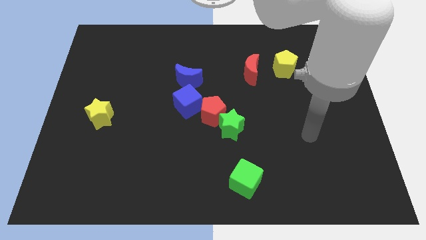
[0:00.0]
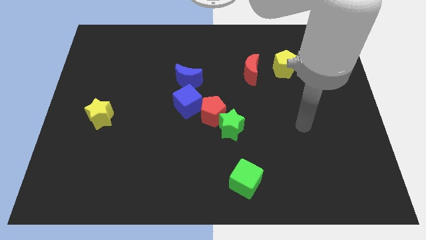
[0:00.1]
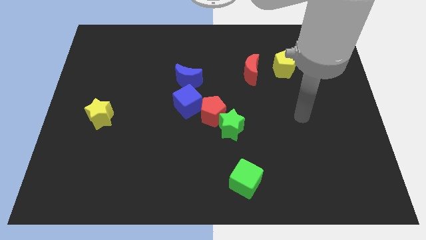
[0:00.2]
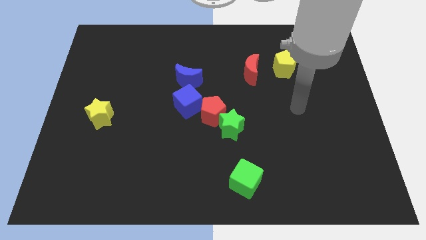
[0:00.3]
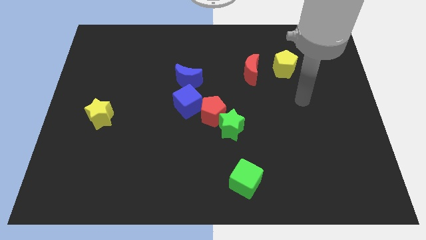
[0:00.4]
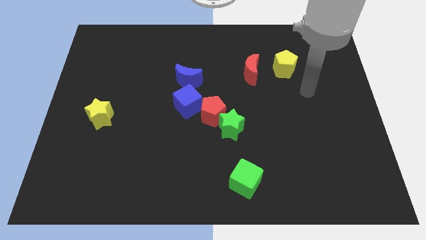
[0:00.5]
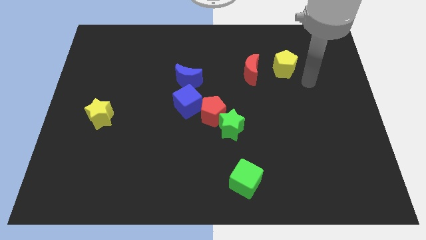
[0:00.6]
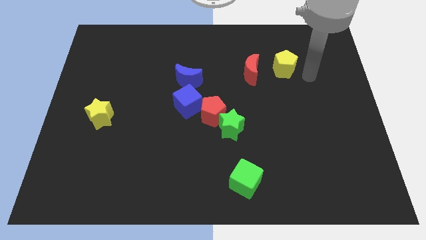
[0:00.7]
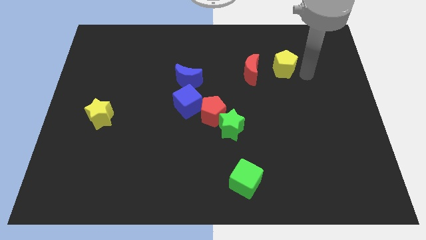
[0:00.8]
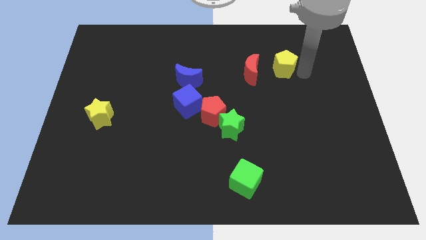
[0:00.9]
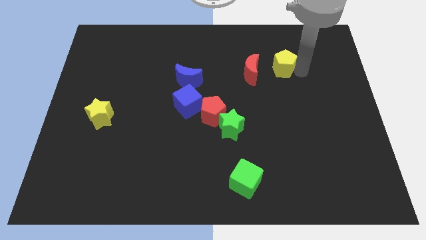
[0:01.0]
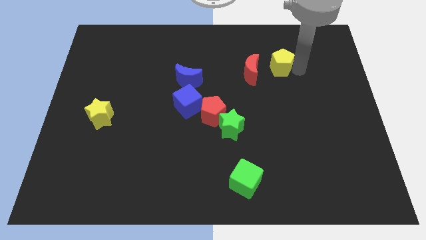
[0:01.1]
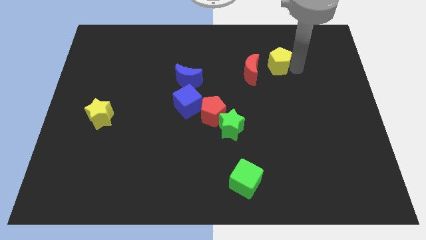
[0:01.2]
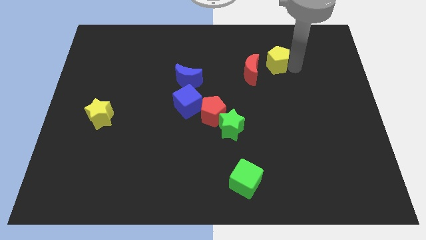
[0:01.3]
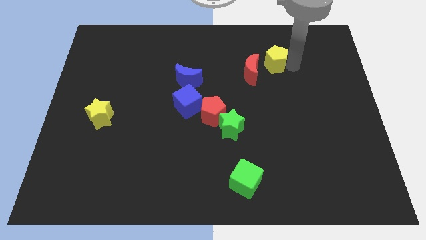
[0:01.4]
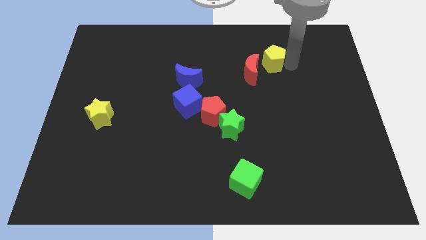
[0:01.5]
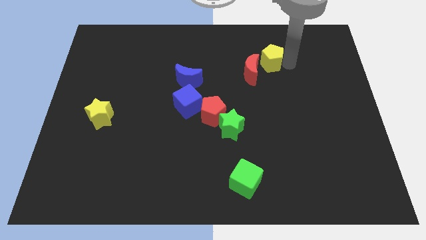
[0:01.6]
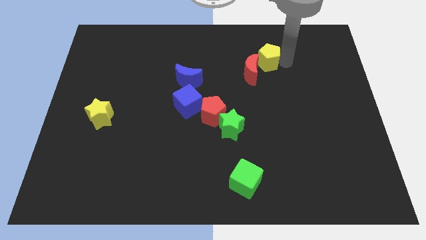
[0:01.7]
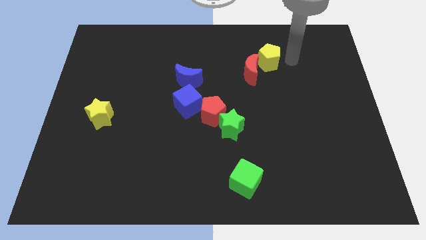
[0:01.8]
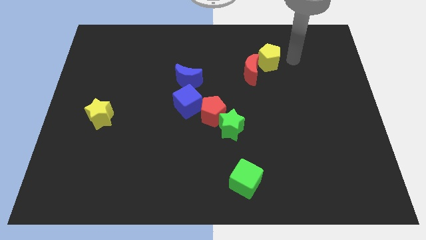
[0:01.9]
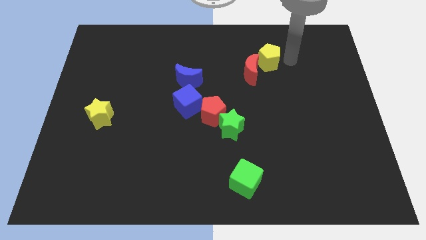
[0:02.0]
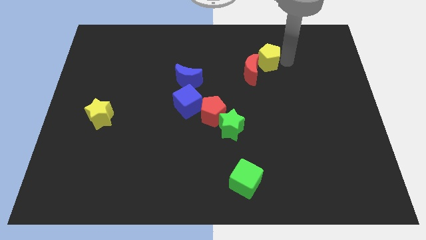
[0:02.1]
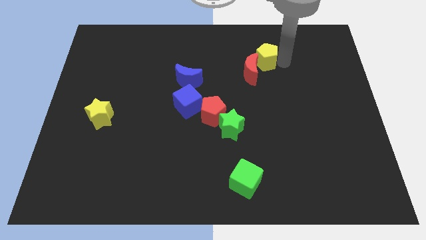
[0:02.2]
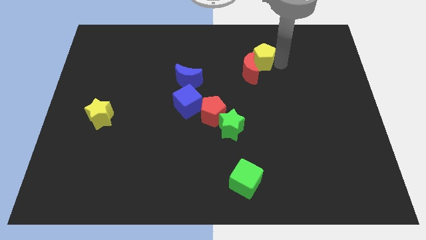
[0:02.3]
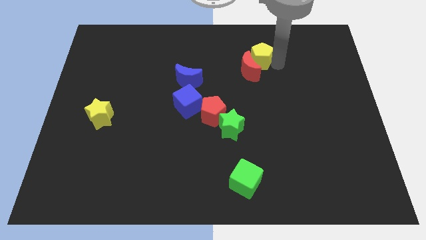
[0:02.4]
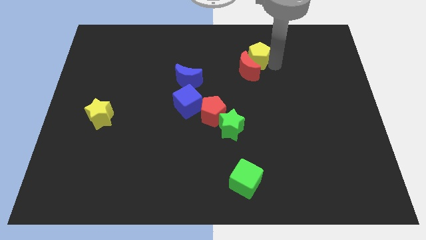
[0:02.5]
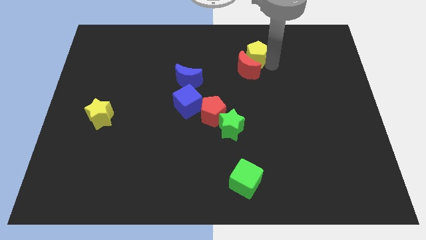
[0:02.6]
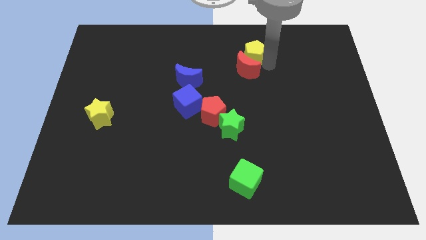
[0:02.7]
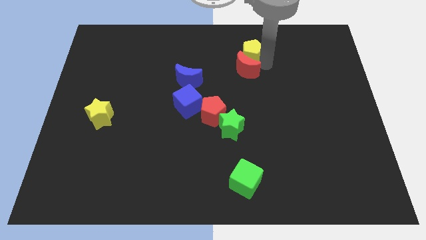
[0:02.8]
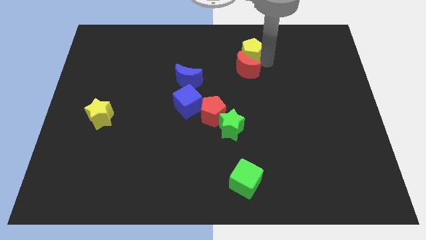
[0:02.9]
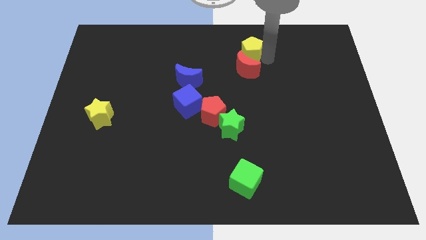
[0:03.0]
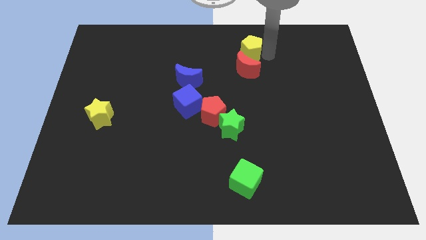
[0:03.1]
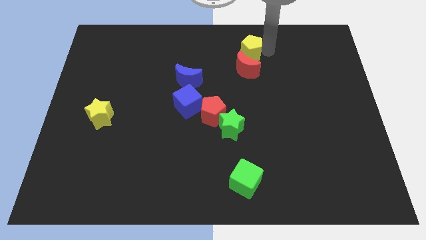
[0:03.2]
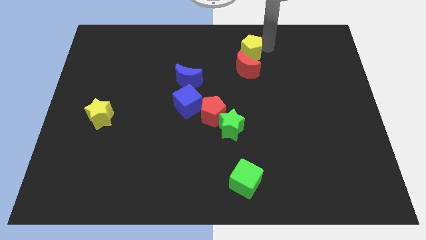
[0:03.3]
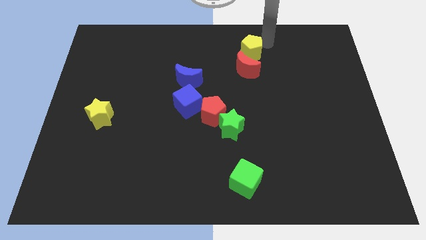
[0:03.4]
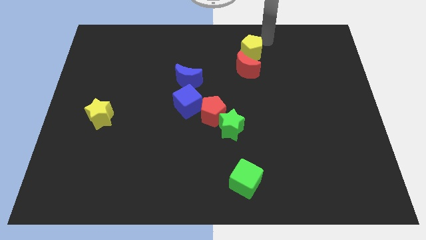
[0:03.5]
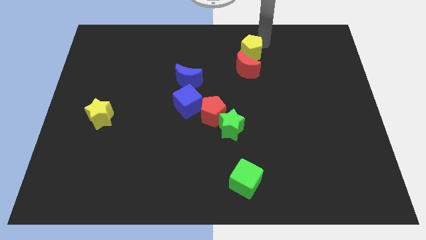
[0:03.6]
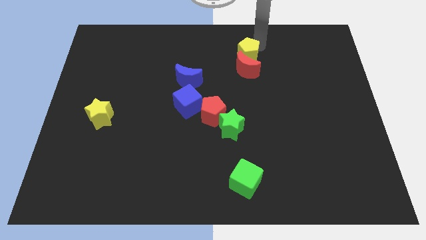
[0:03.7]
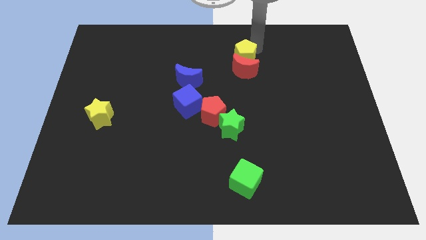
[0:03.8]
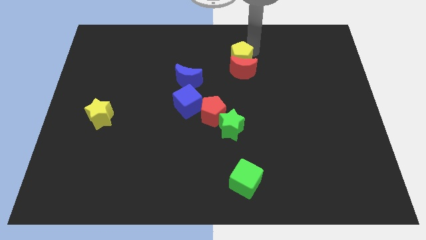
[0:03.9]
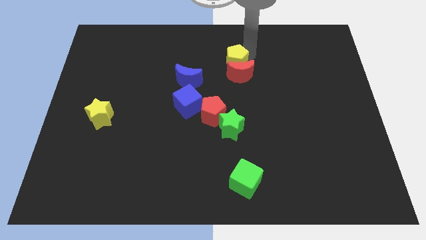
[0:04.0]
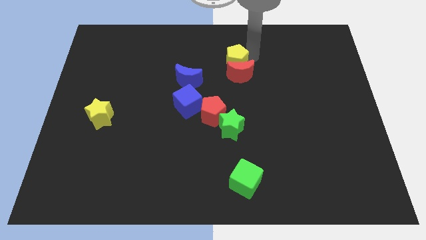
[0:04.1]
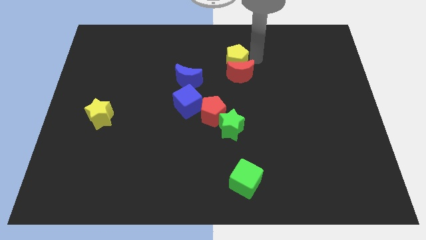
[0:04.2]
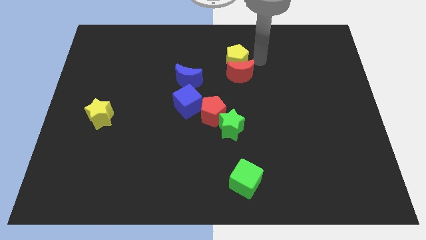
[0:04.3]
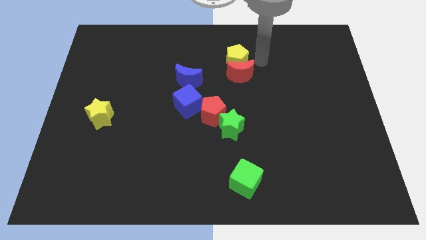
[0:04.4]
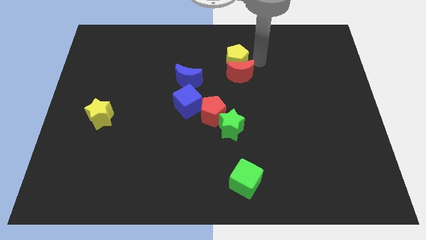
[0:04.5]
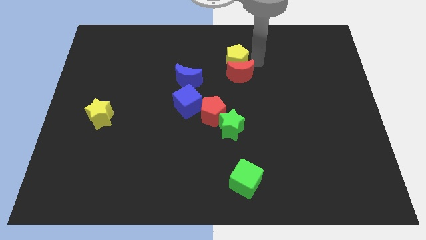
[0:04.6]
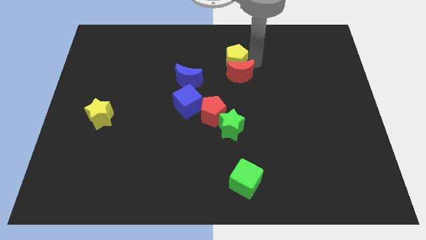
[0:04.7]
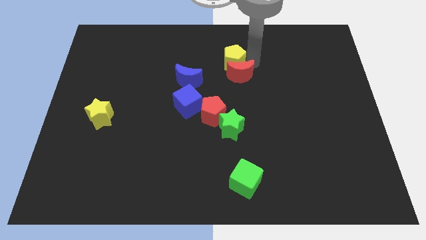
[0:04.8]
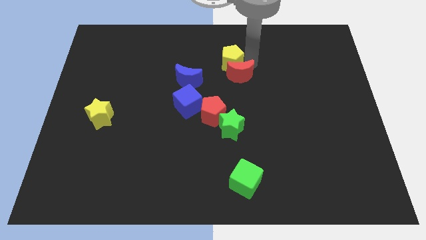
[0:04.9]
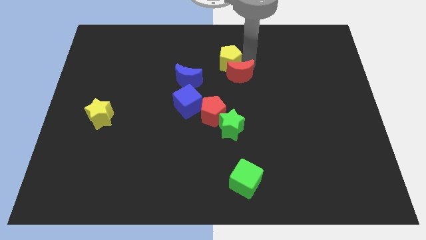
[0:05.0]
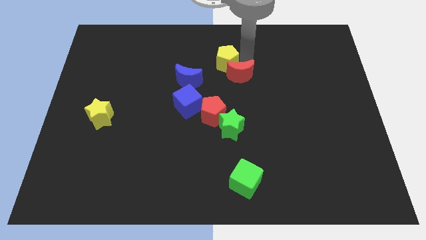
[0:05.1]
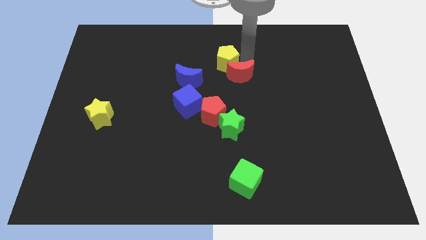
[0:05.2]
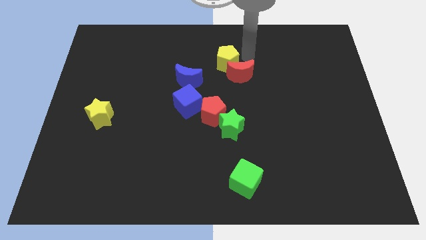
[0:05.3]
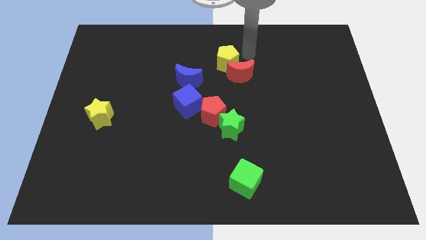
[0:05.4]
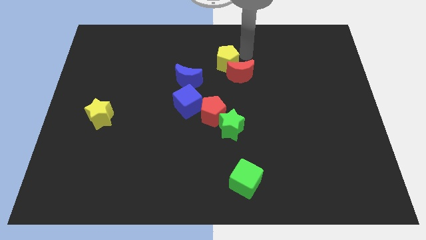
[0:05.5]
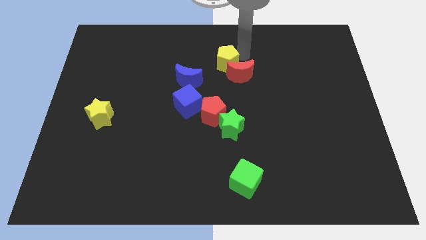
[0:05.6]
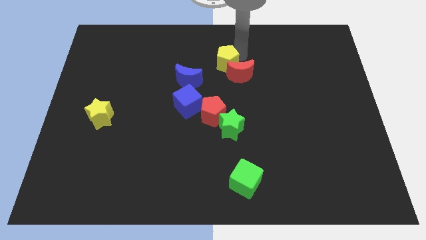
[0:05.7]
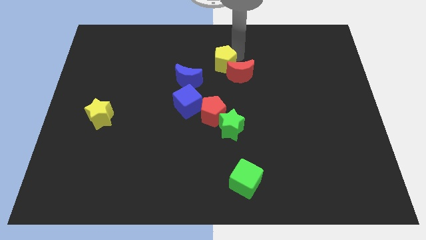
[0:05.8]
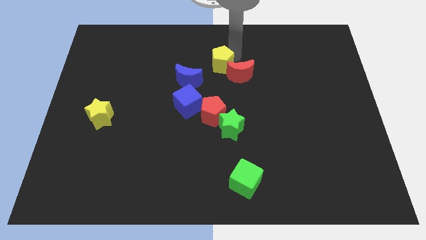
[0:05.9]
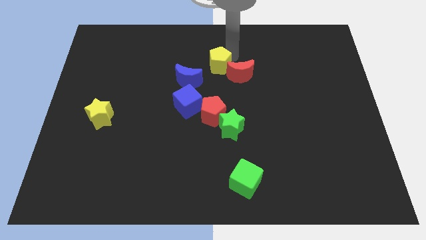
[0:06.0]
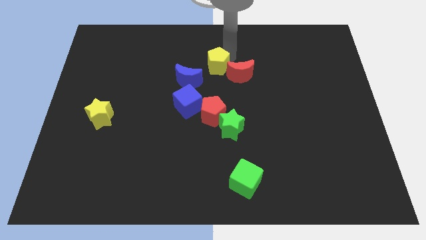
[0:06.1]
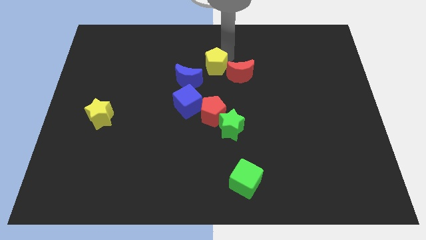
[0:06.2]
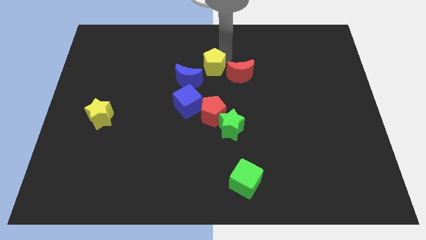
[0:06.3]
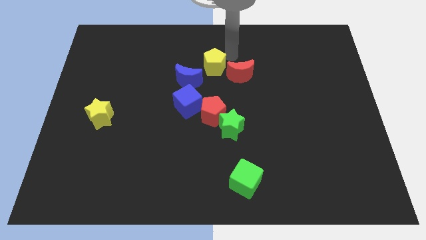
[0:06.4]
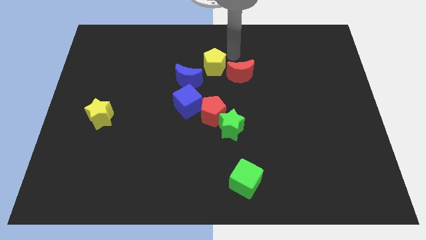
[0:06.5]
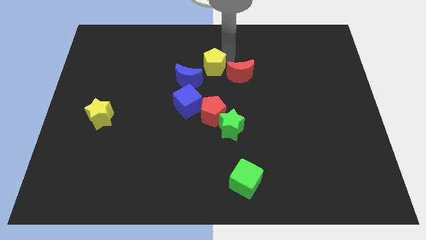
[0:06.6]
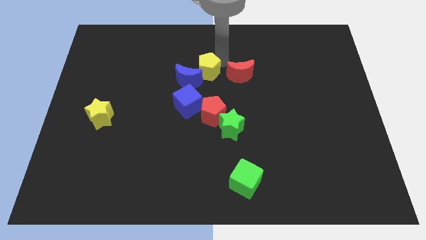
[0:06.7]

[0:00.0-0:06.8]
put the yellow pentagon close to the blue moon

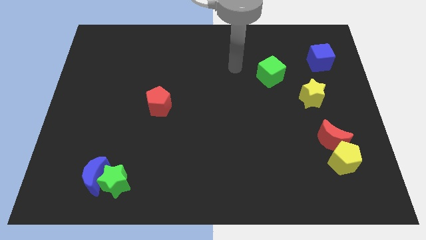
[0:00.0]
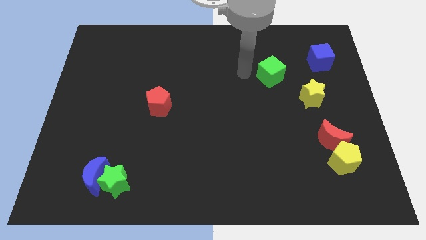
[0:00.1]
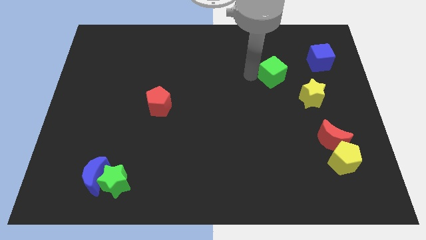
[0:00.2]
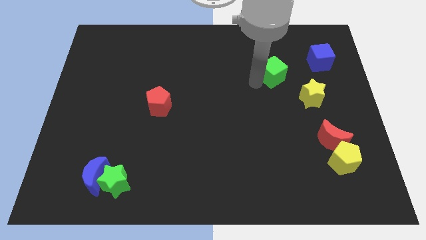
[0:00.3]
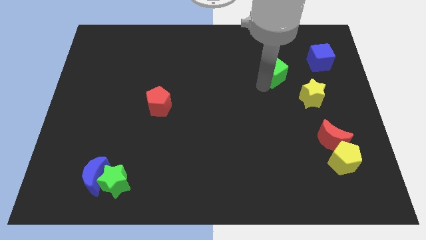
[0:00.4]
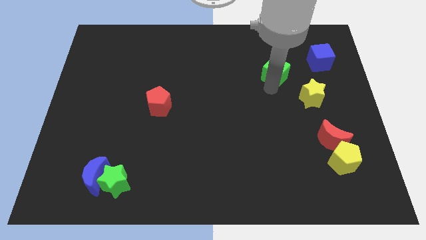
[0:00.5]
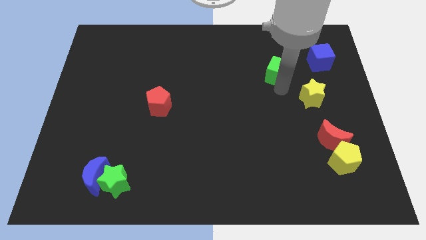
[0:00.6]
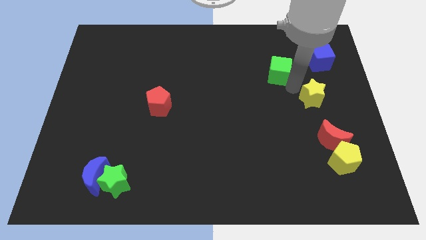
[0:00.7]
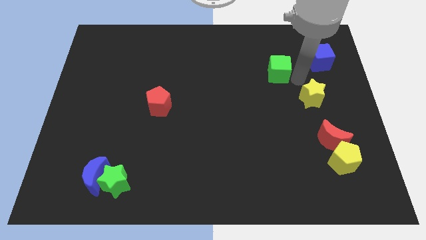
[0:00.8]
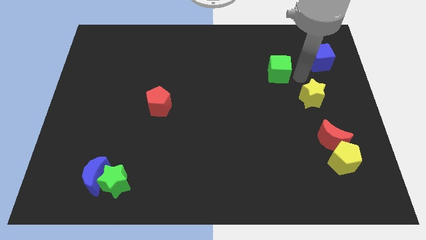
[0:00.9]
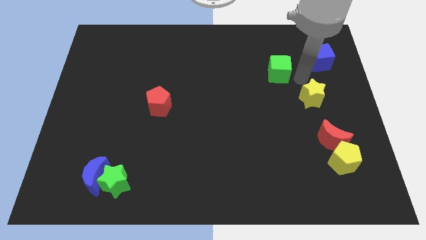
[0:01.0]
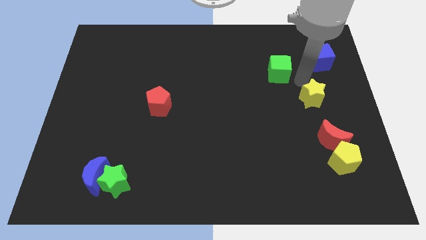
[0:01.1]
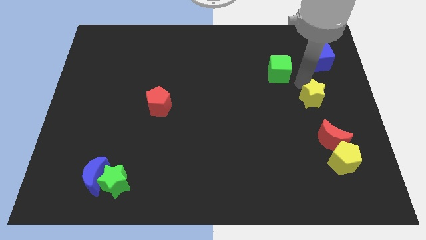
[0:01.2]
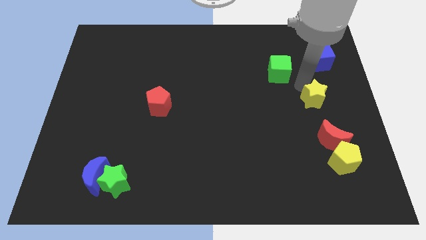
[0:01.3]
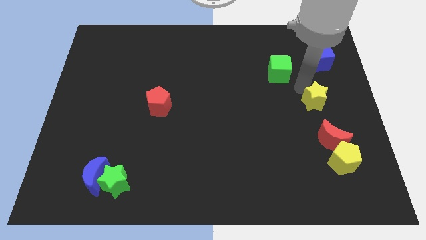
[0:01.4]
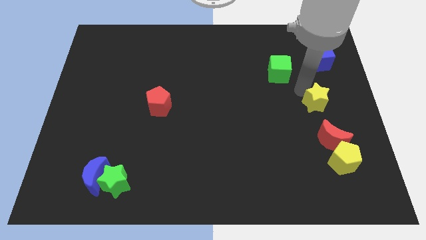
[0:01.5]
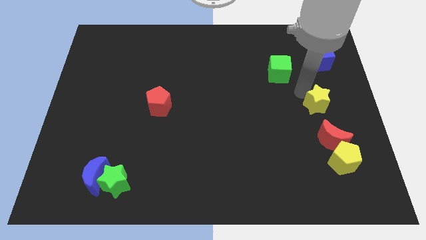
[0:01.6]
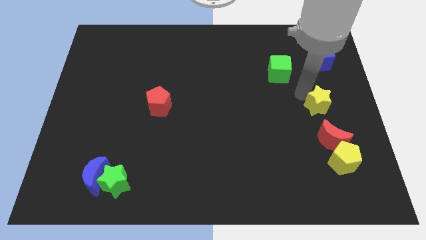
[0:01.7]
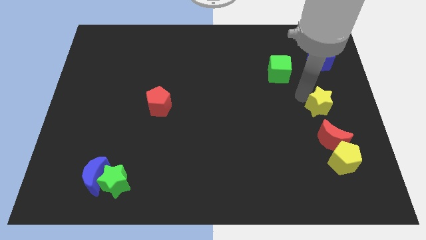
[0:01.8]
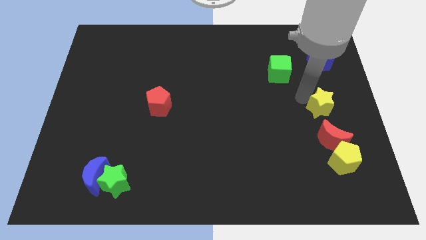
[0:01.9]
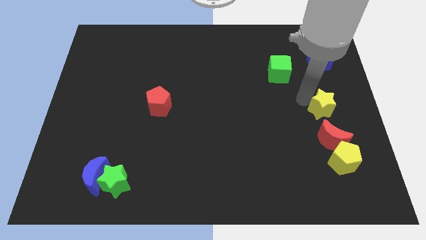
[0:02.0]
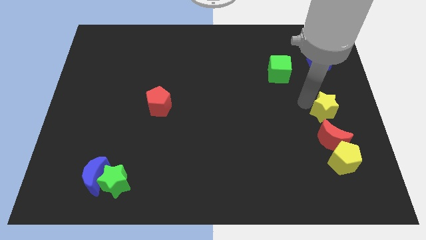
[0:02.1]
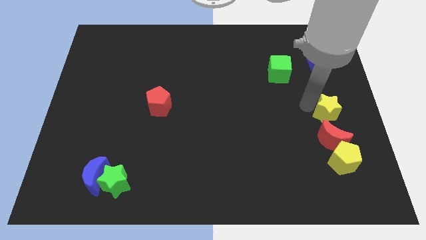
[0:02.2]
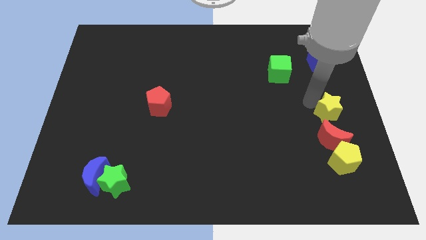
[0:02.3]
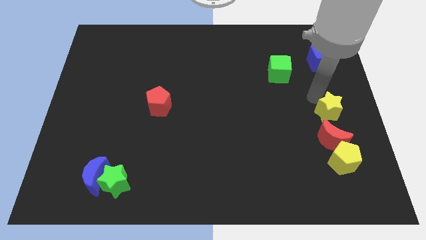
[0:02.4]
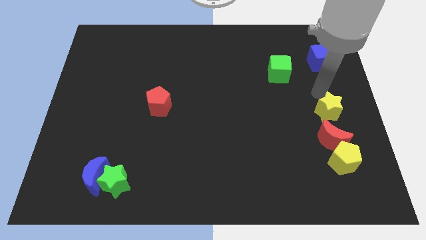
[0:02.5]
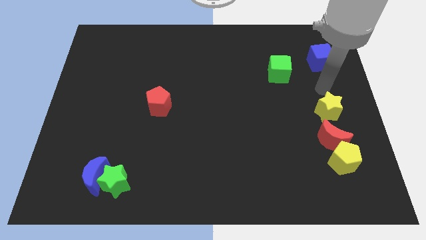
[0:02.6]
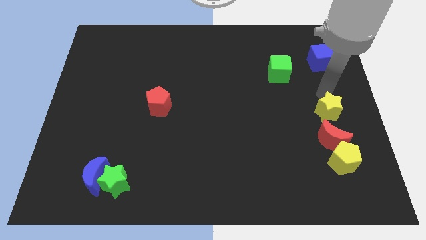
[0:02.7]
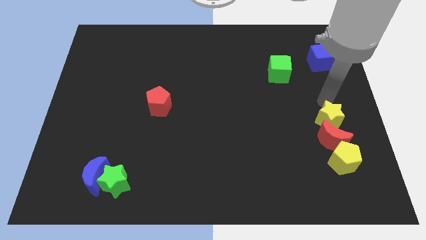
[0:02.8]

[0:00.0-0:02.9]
push the yellow star to the red moon
